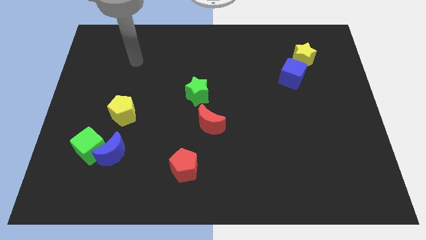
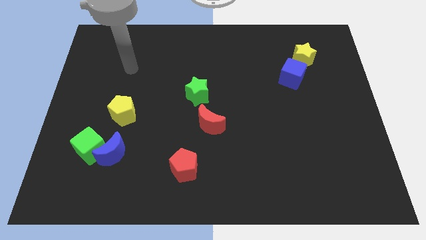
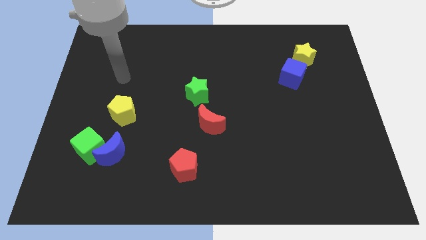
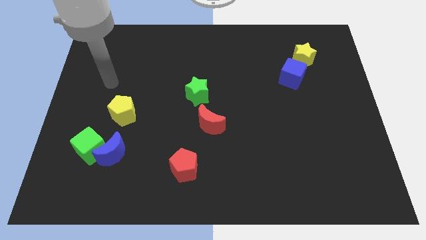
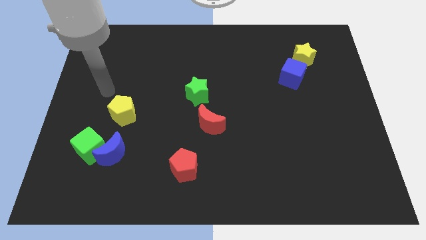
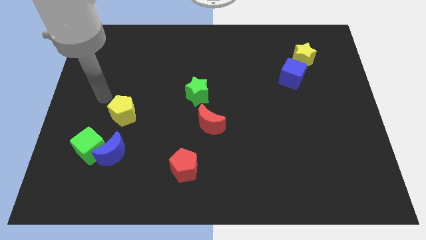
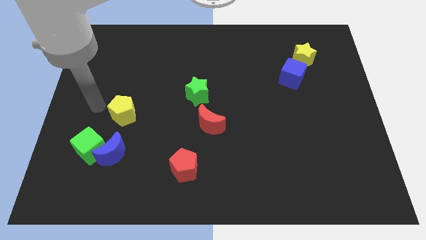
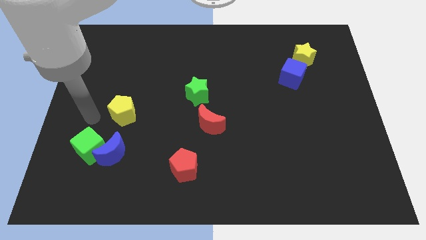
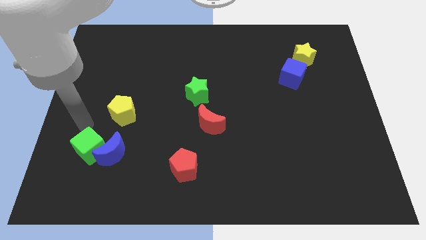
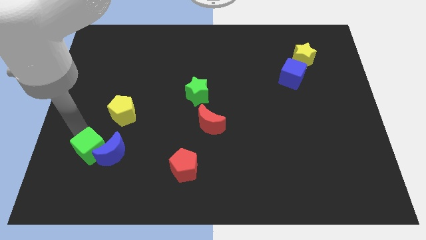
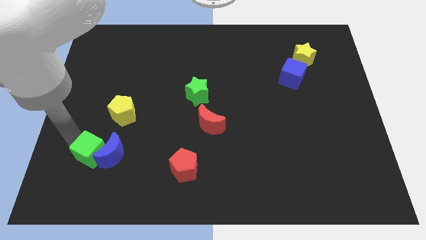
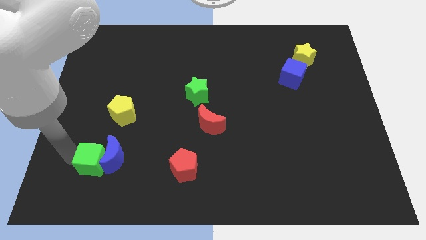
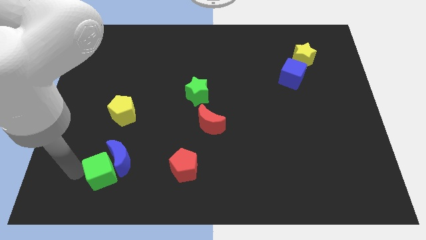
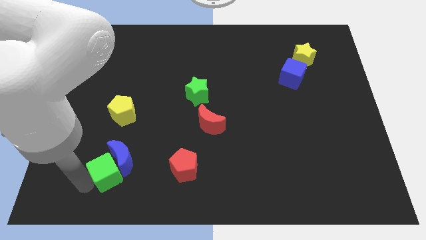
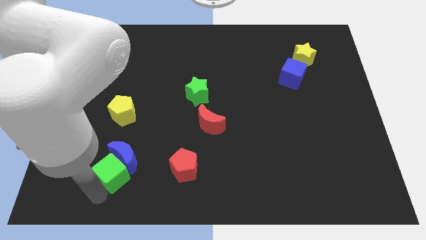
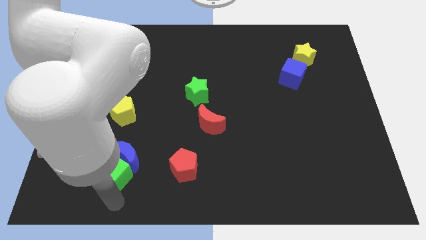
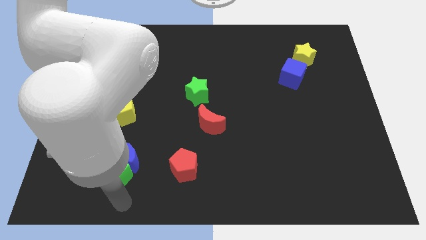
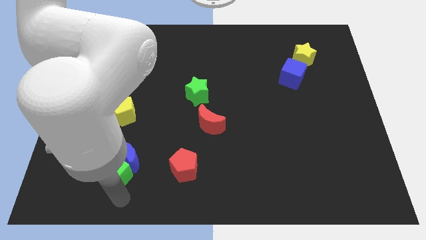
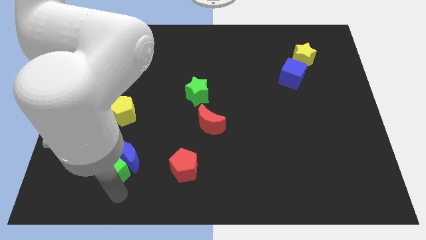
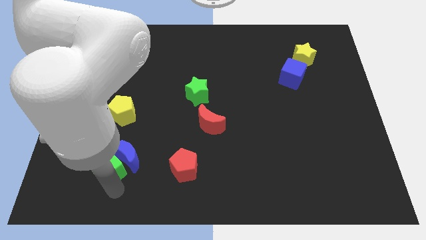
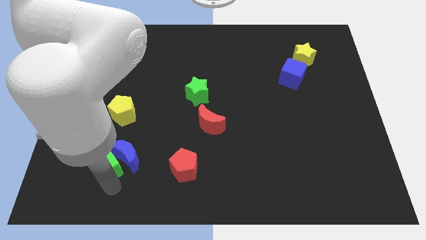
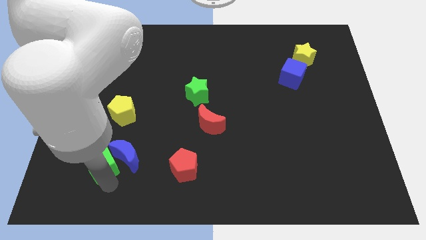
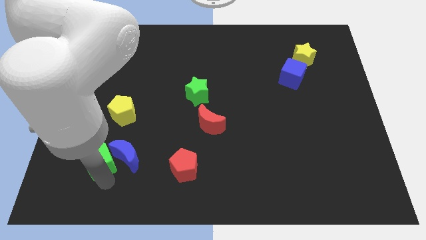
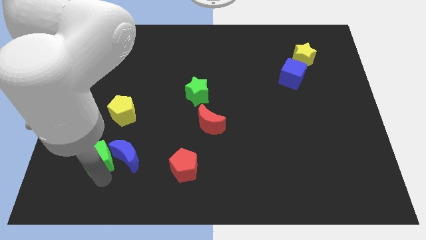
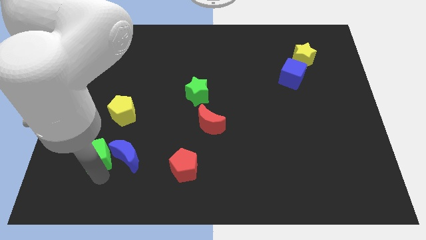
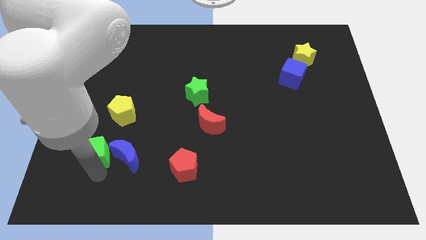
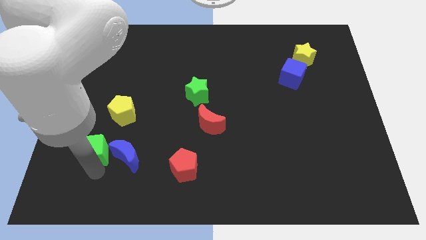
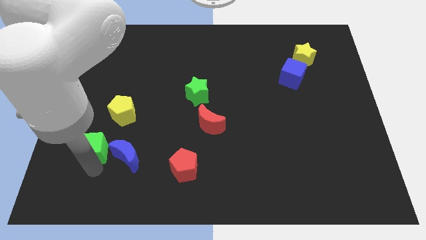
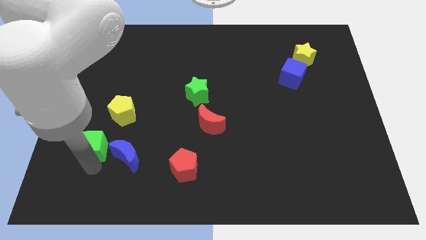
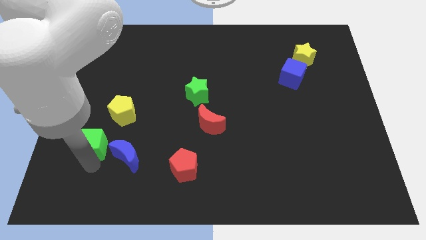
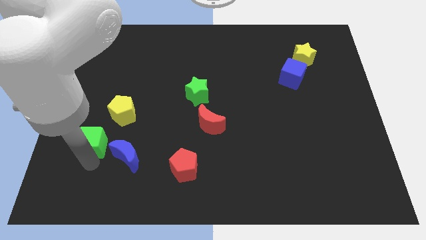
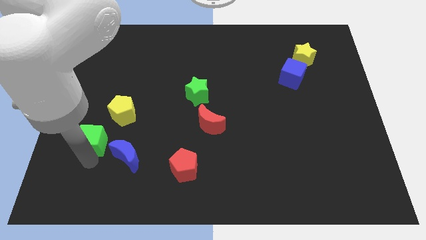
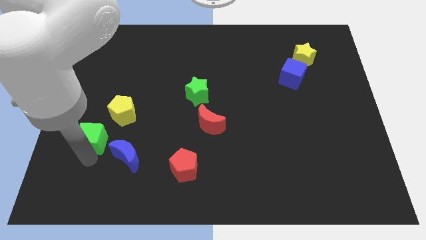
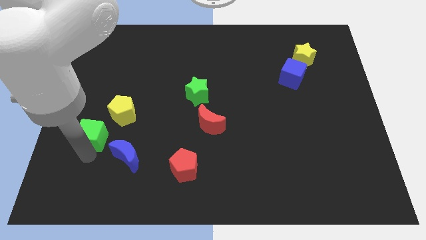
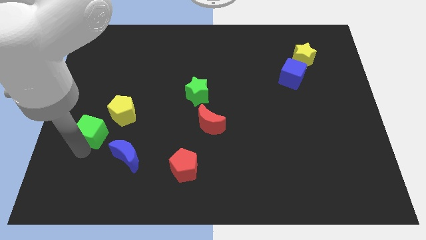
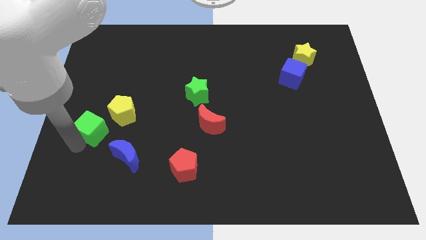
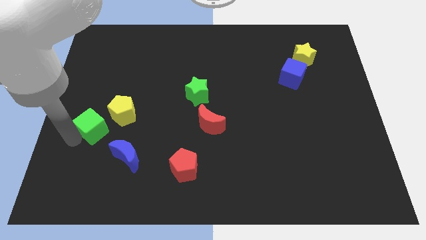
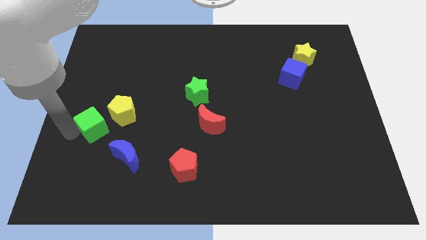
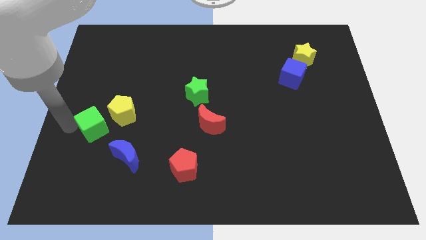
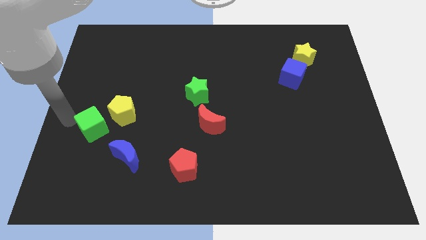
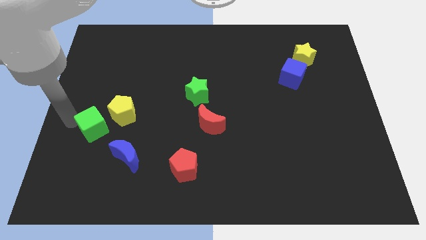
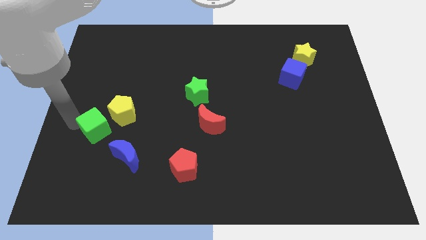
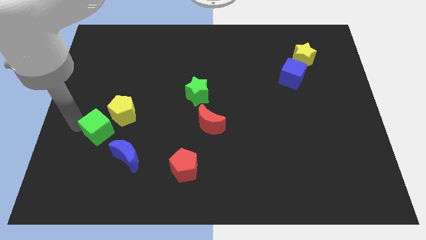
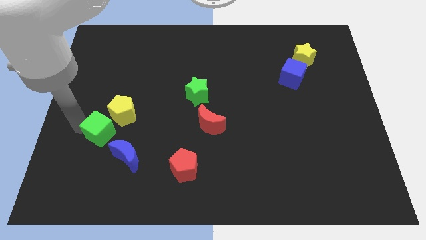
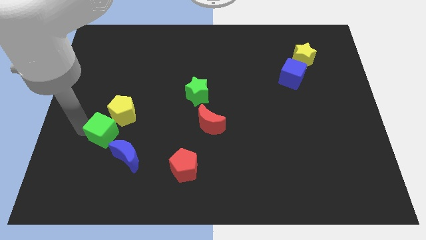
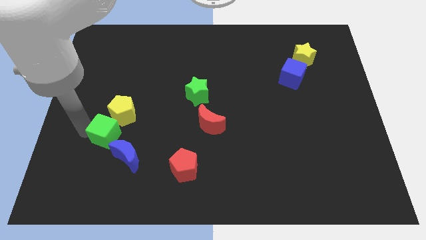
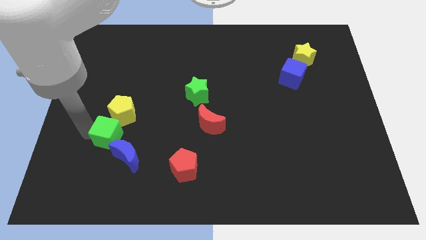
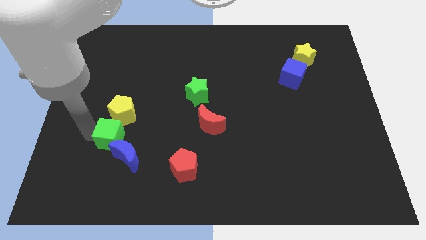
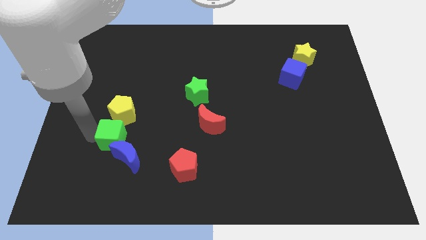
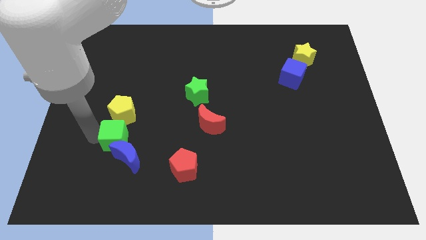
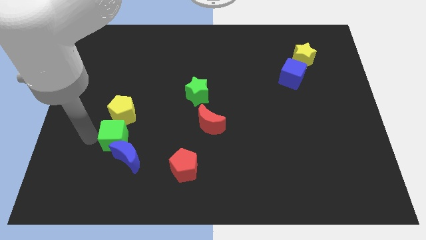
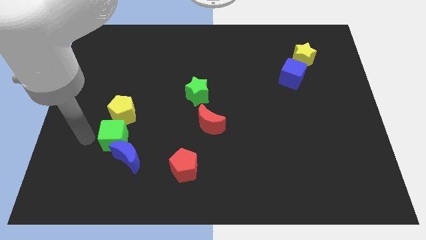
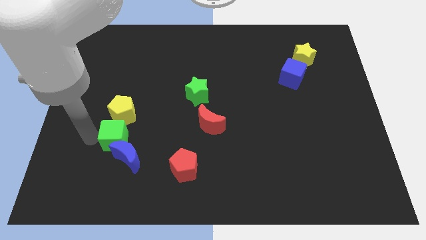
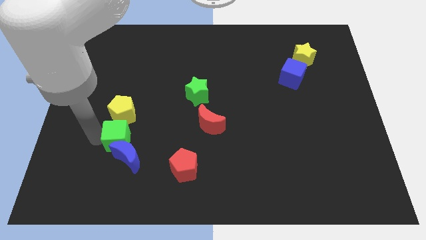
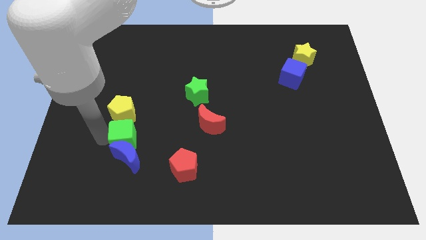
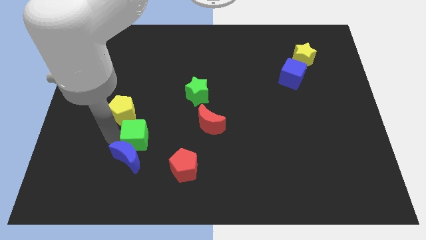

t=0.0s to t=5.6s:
move the green cube right slightly

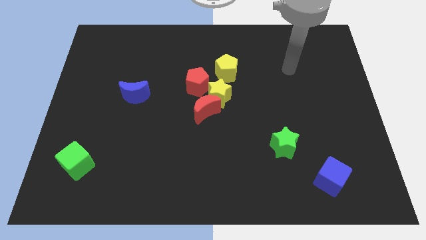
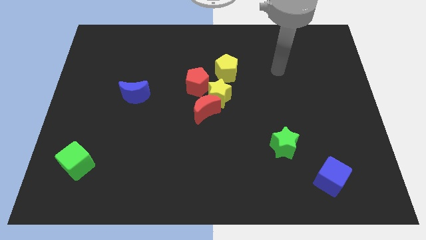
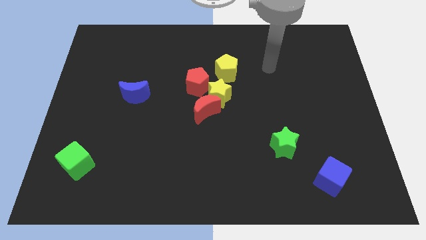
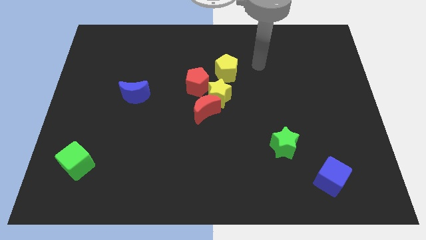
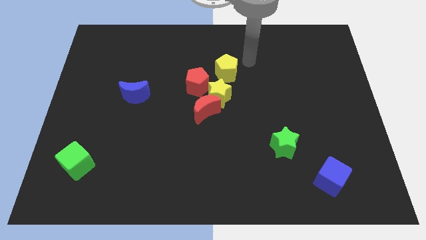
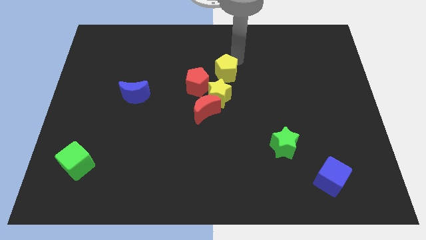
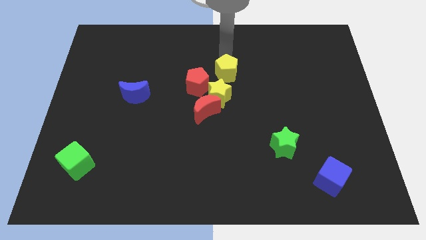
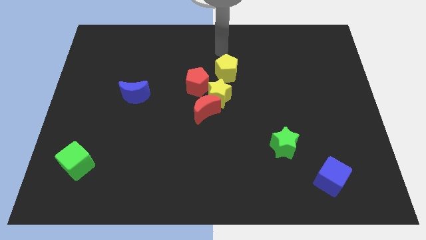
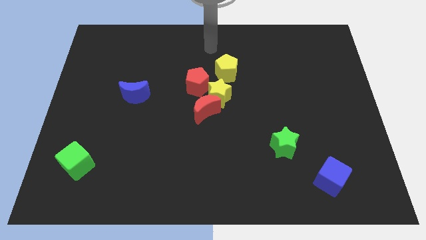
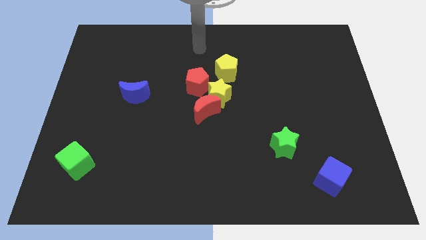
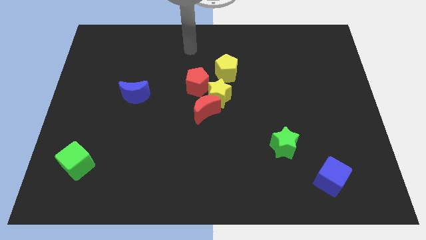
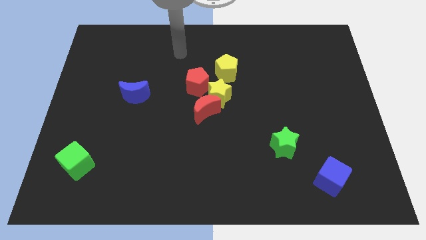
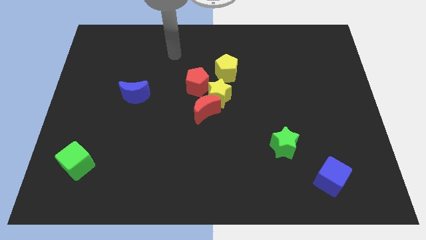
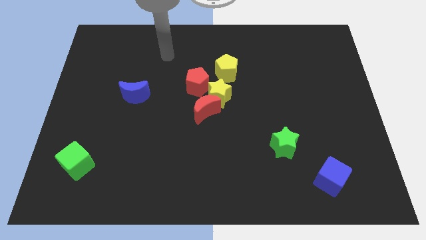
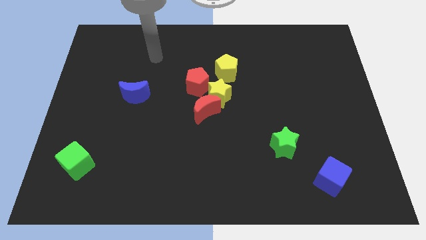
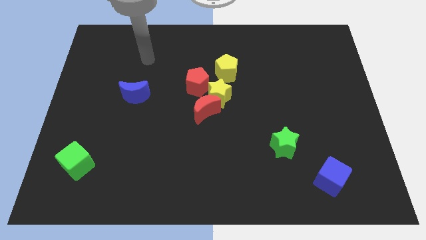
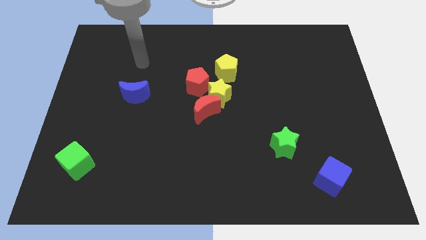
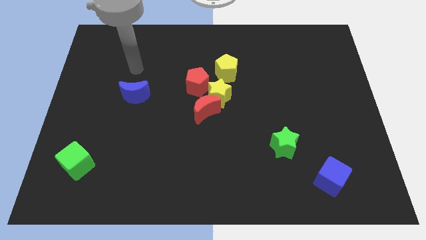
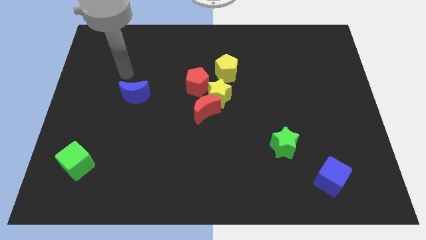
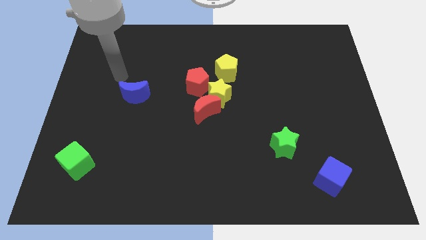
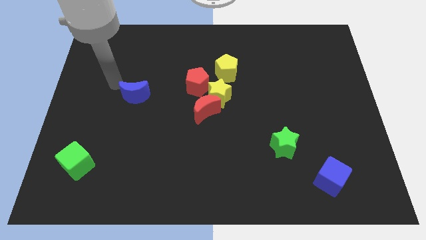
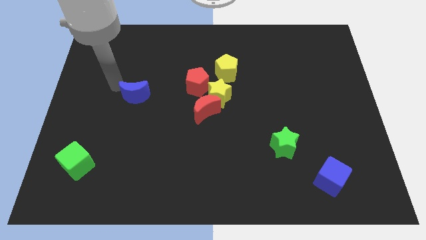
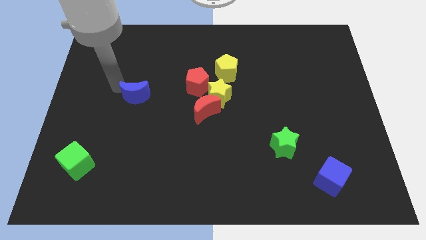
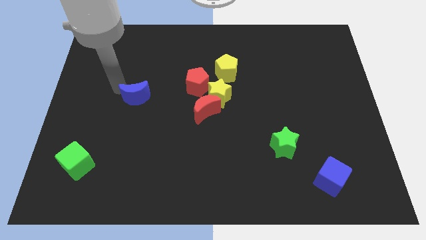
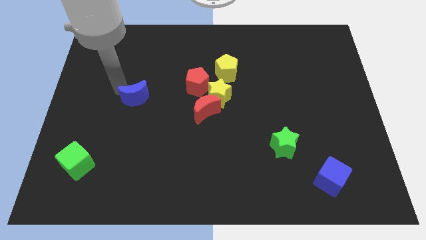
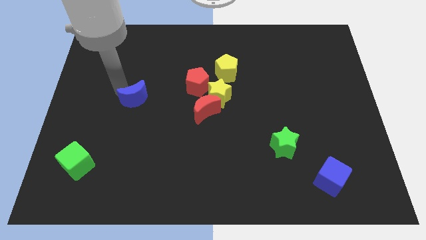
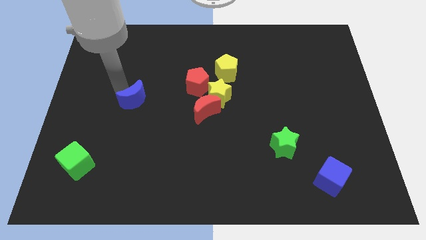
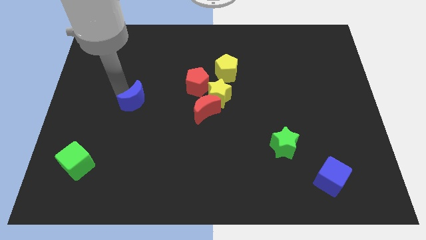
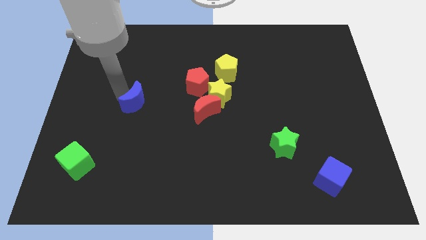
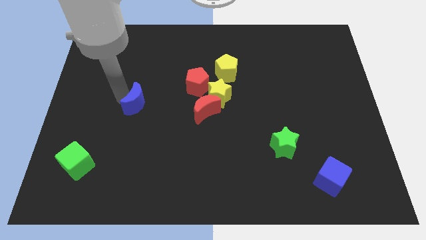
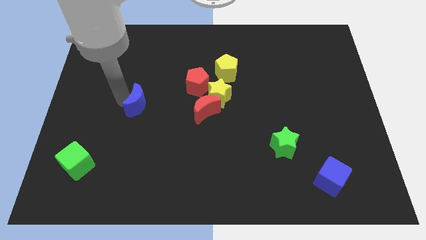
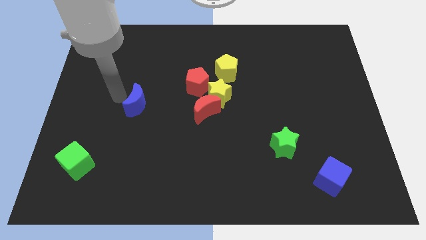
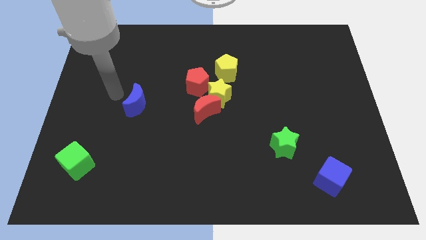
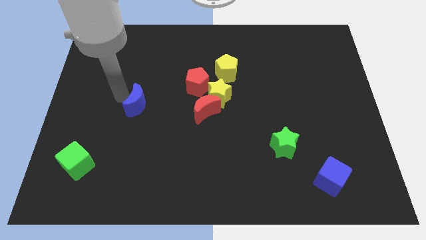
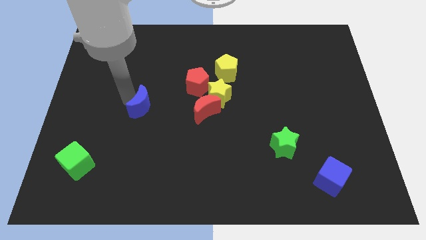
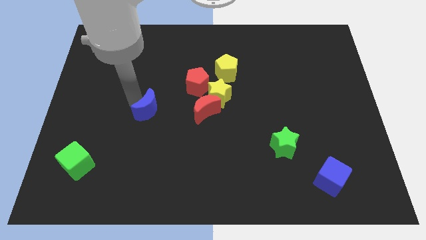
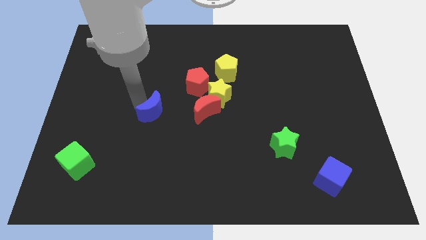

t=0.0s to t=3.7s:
slightly move the blue moon downwards and then right
